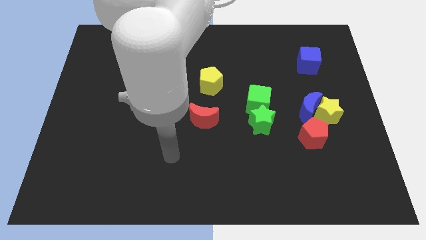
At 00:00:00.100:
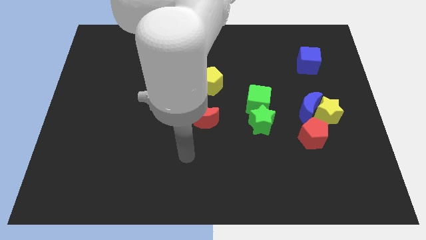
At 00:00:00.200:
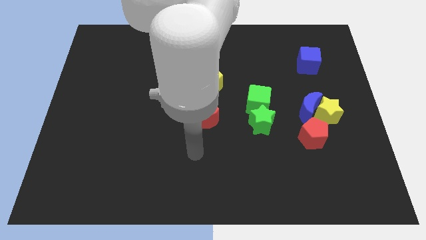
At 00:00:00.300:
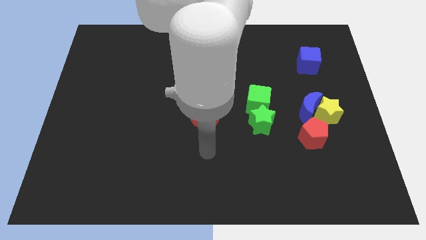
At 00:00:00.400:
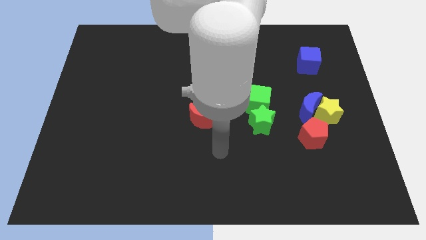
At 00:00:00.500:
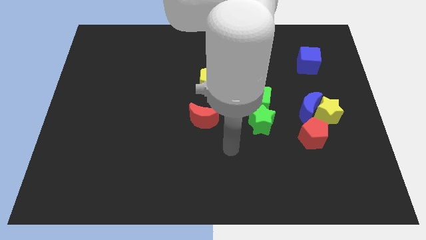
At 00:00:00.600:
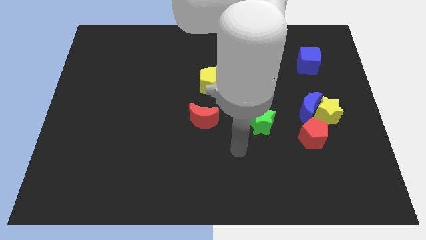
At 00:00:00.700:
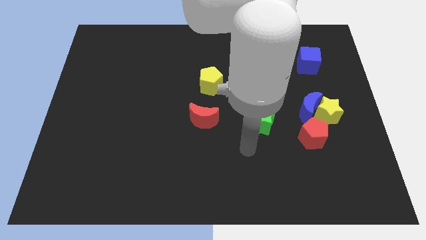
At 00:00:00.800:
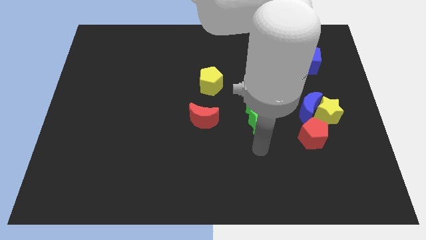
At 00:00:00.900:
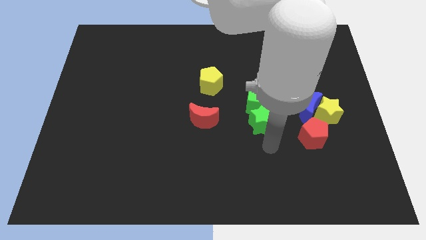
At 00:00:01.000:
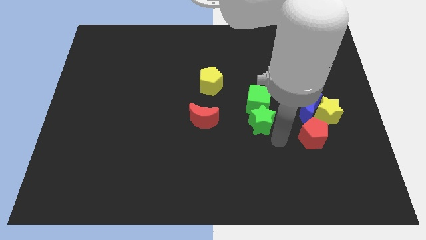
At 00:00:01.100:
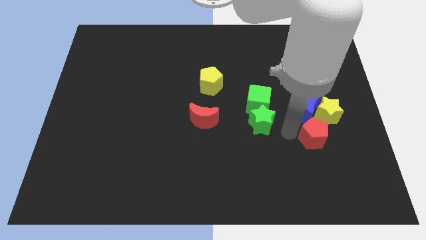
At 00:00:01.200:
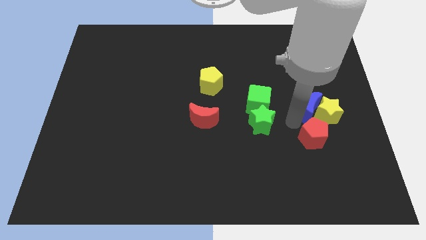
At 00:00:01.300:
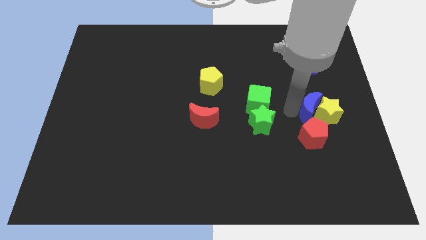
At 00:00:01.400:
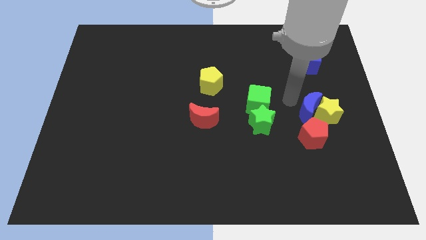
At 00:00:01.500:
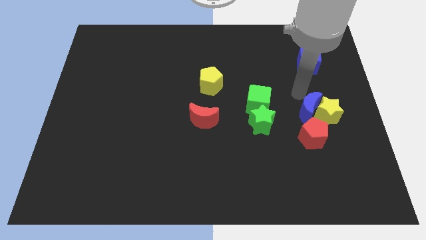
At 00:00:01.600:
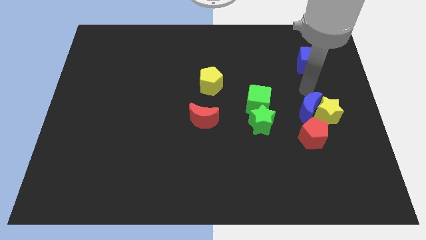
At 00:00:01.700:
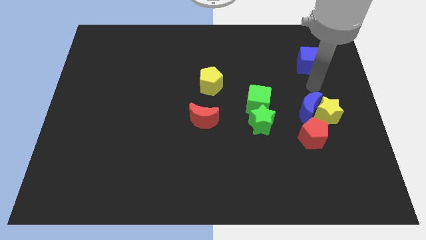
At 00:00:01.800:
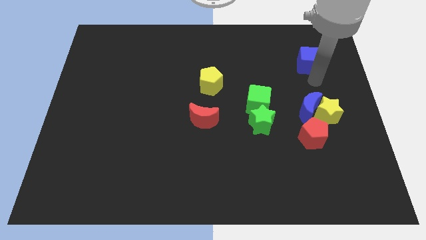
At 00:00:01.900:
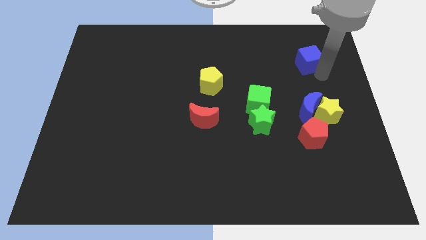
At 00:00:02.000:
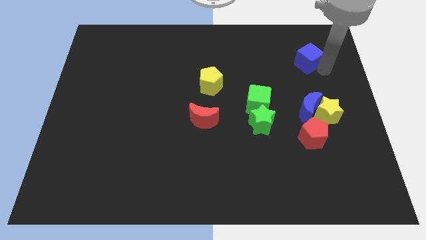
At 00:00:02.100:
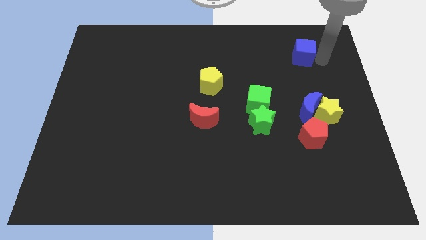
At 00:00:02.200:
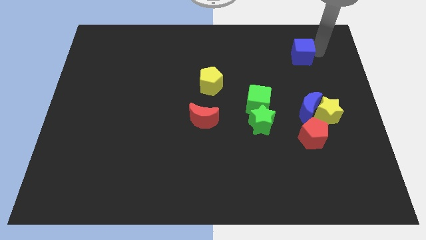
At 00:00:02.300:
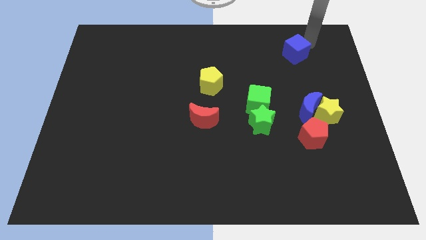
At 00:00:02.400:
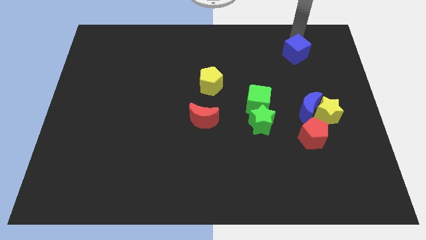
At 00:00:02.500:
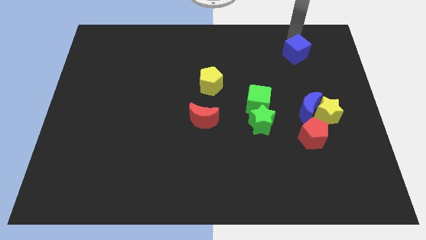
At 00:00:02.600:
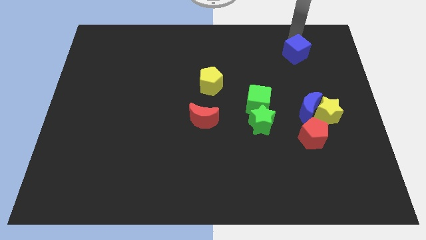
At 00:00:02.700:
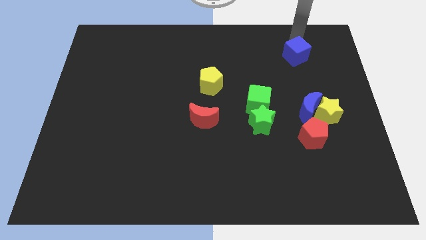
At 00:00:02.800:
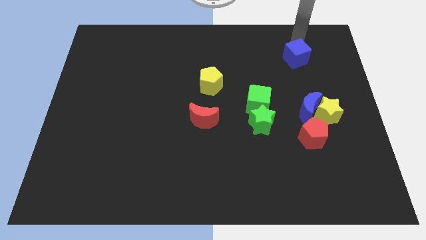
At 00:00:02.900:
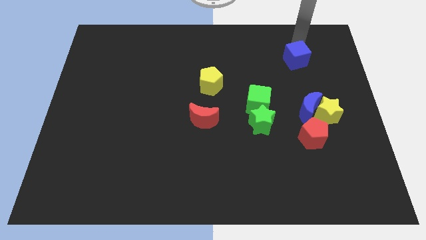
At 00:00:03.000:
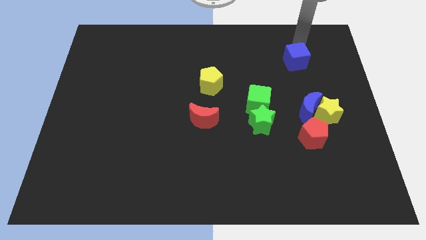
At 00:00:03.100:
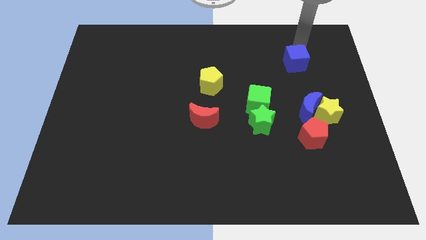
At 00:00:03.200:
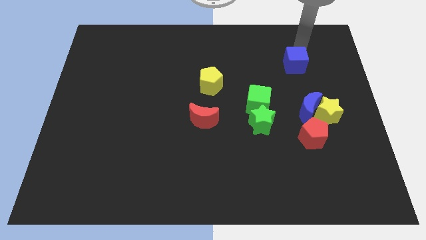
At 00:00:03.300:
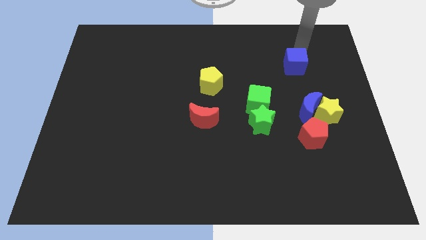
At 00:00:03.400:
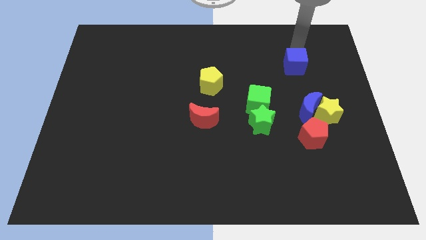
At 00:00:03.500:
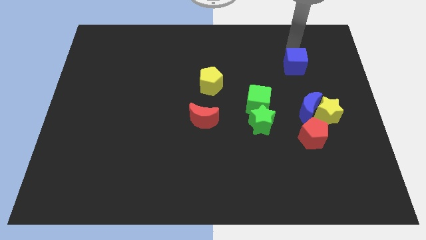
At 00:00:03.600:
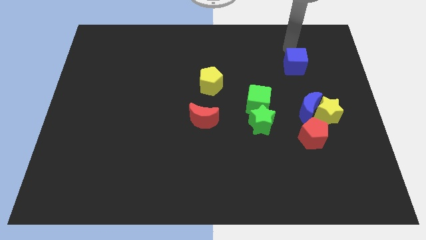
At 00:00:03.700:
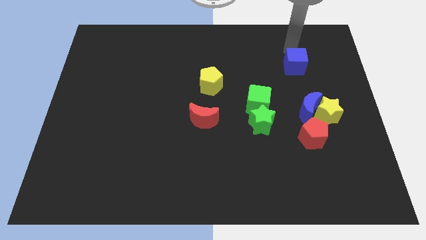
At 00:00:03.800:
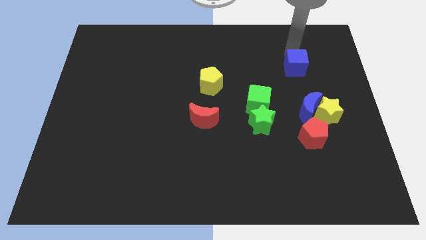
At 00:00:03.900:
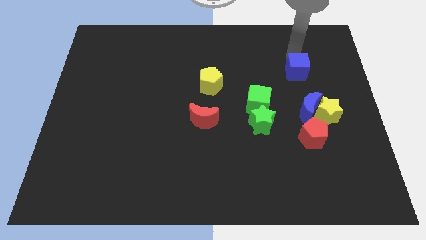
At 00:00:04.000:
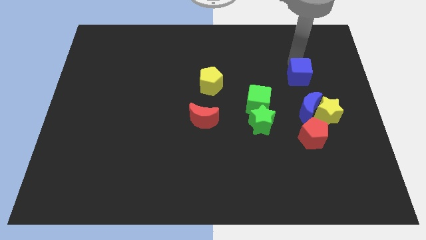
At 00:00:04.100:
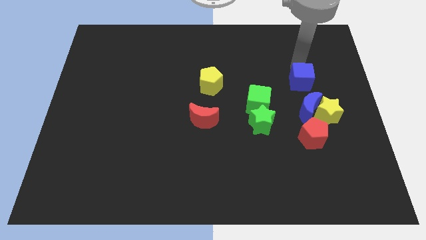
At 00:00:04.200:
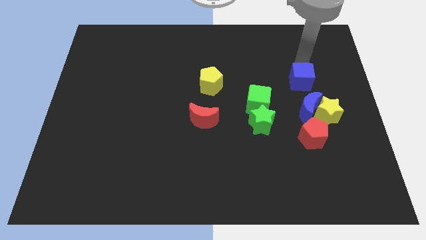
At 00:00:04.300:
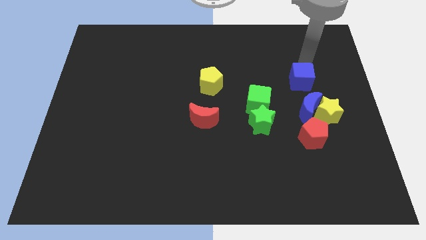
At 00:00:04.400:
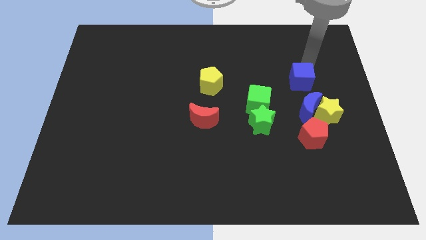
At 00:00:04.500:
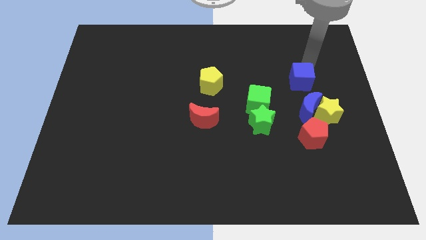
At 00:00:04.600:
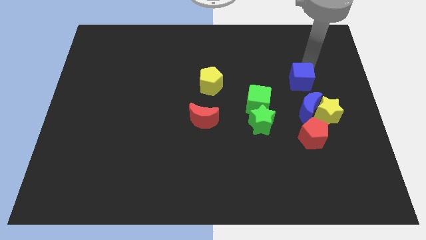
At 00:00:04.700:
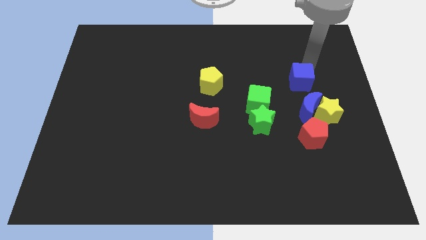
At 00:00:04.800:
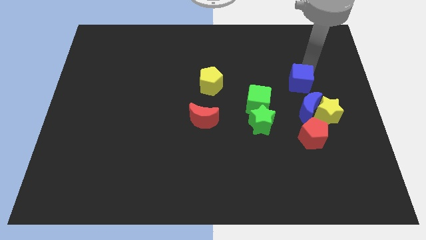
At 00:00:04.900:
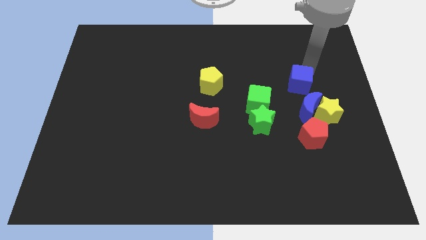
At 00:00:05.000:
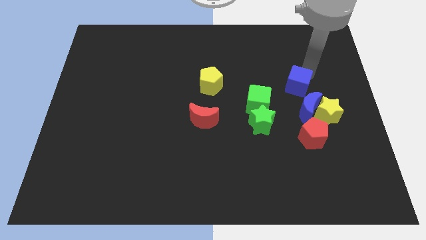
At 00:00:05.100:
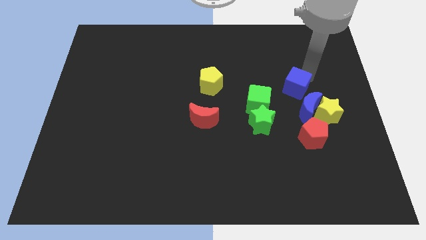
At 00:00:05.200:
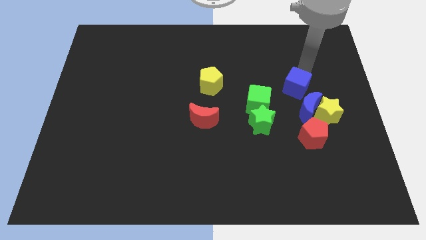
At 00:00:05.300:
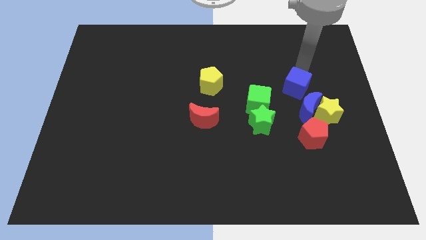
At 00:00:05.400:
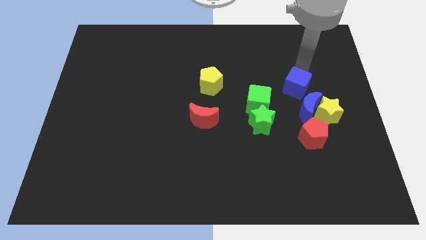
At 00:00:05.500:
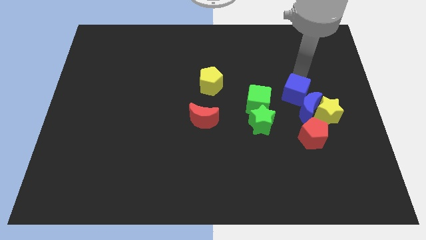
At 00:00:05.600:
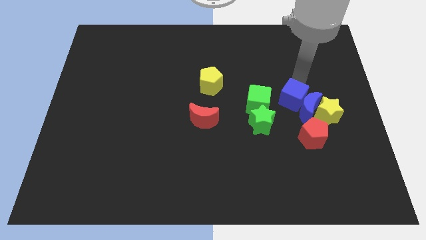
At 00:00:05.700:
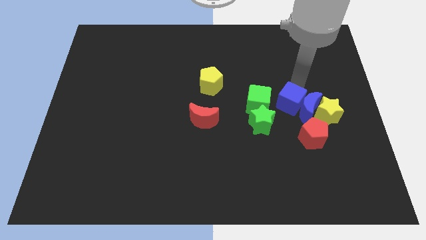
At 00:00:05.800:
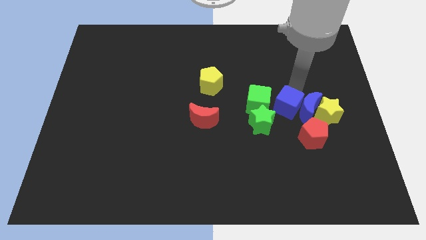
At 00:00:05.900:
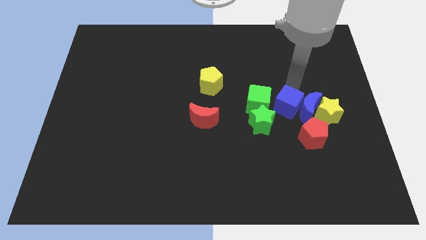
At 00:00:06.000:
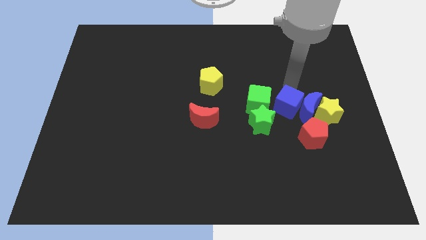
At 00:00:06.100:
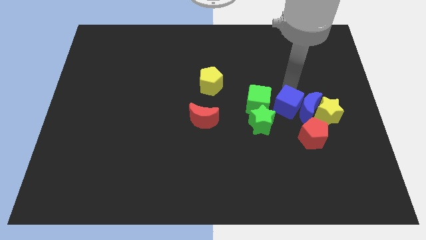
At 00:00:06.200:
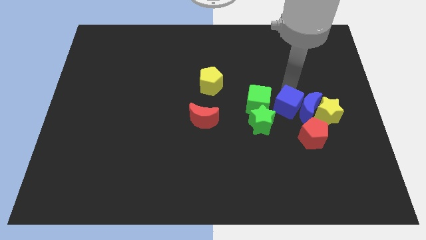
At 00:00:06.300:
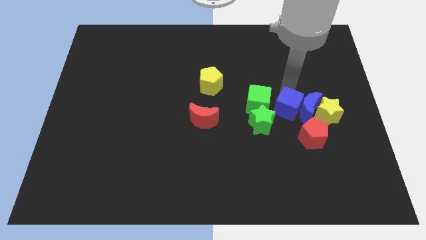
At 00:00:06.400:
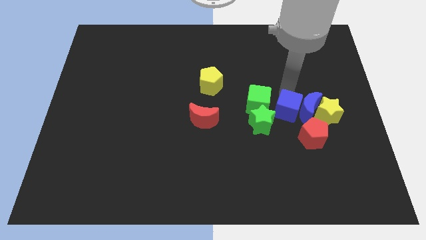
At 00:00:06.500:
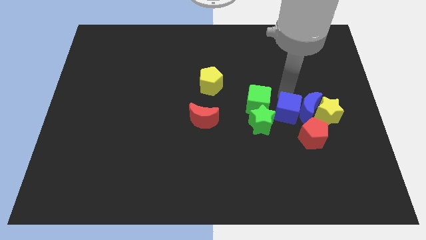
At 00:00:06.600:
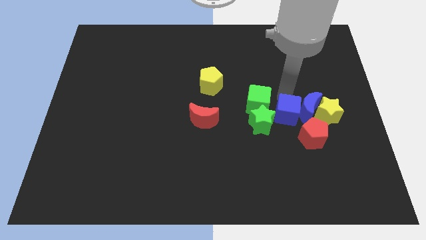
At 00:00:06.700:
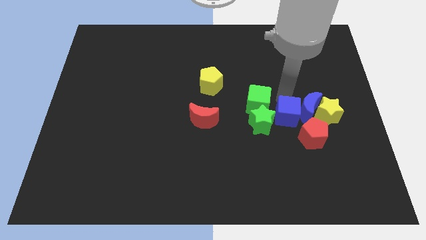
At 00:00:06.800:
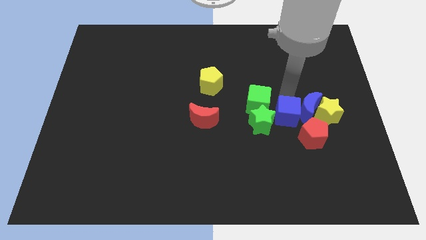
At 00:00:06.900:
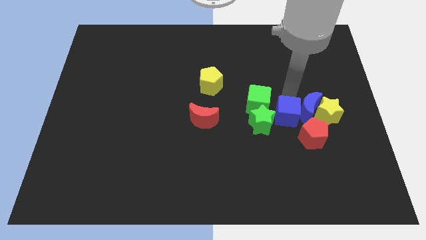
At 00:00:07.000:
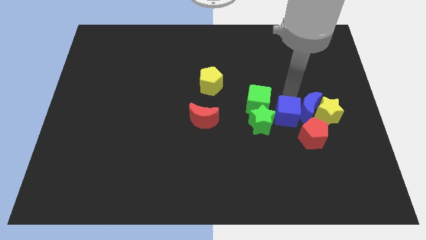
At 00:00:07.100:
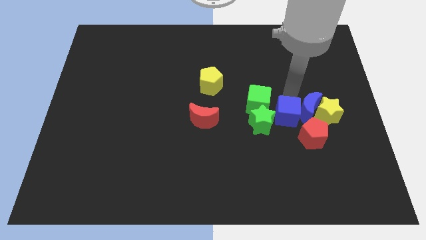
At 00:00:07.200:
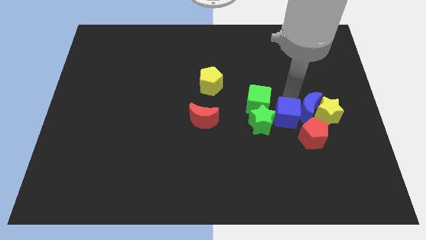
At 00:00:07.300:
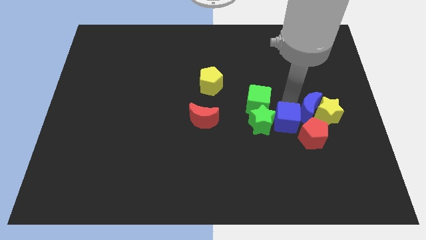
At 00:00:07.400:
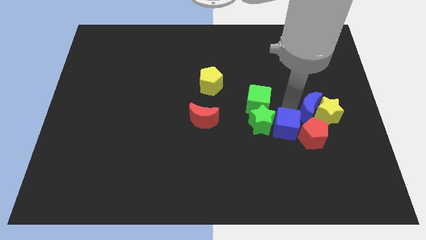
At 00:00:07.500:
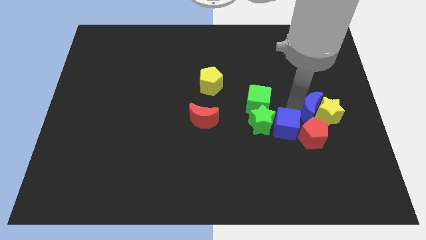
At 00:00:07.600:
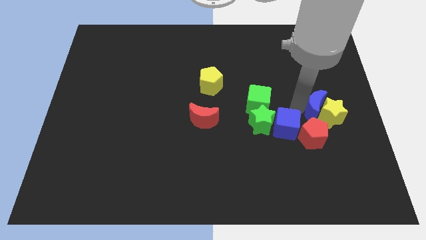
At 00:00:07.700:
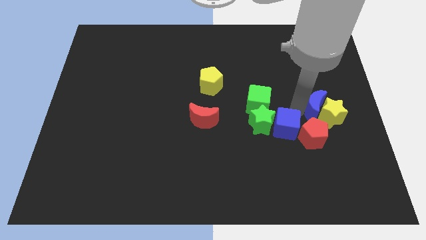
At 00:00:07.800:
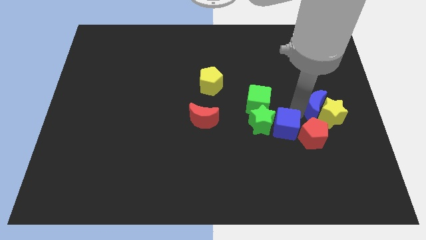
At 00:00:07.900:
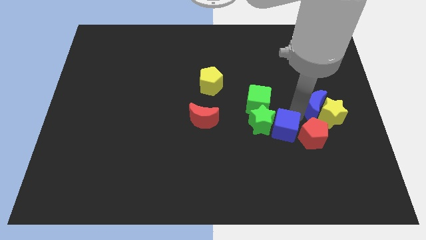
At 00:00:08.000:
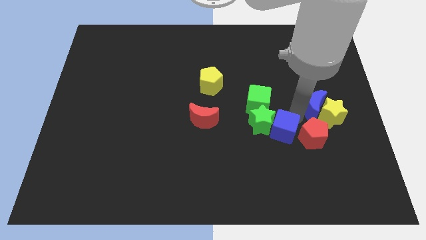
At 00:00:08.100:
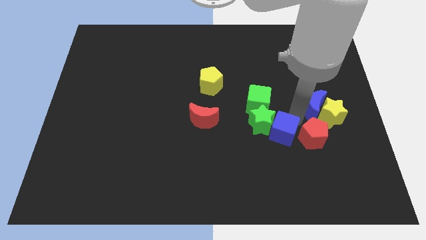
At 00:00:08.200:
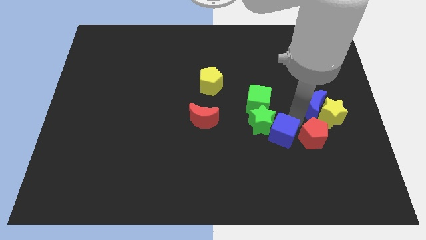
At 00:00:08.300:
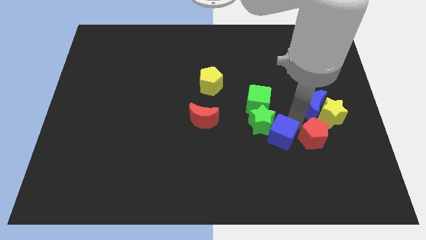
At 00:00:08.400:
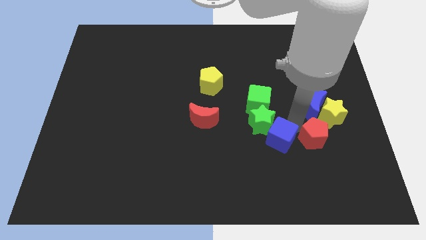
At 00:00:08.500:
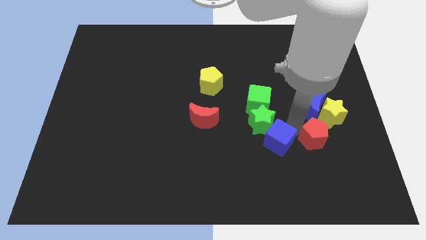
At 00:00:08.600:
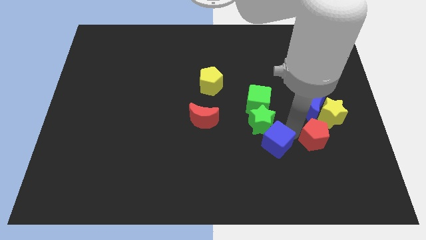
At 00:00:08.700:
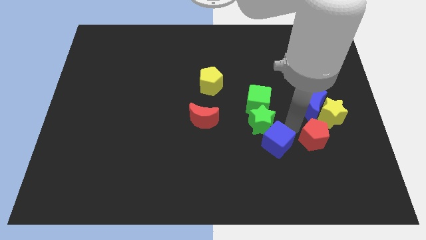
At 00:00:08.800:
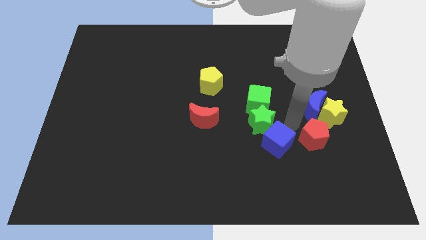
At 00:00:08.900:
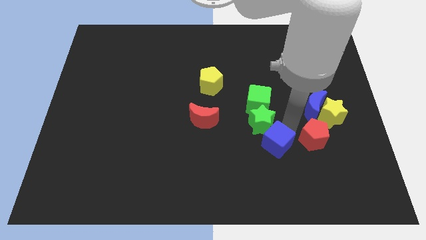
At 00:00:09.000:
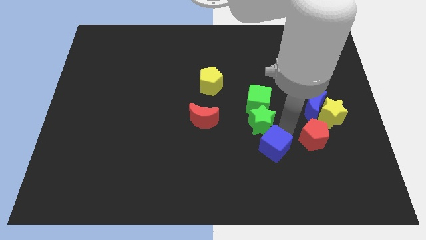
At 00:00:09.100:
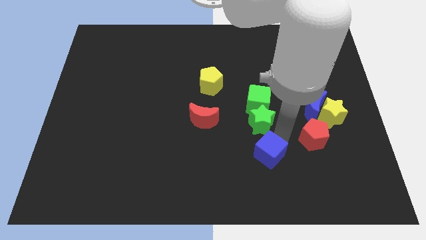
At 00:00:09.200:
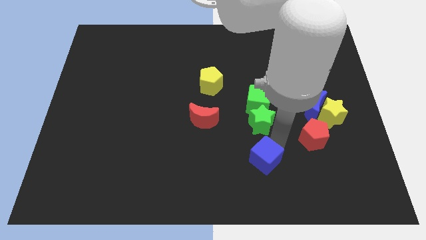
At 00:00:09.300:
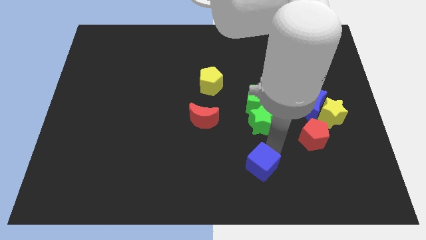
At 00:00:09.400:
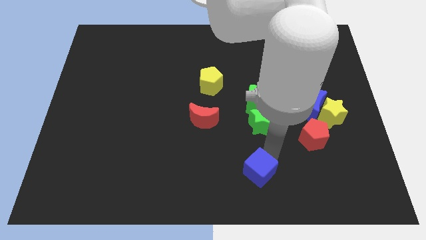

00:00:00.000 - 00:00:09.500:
put the blue cube to the bottom
